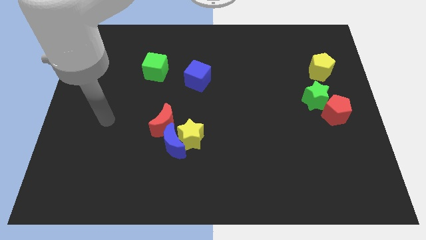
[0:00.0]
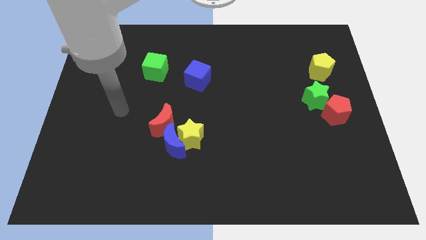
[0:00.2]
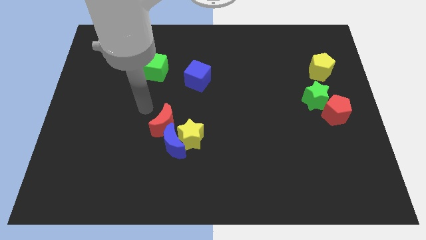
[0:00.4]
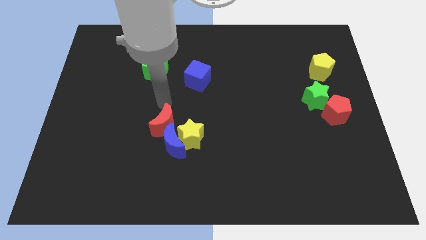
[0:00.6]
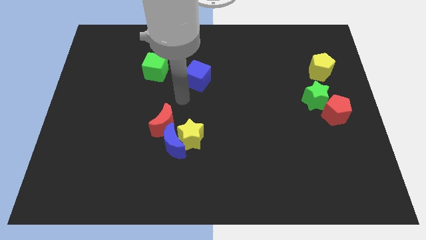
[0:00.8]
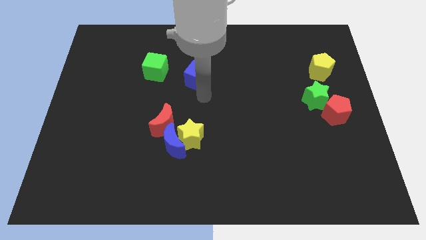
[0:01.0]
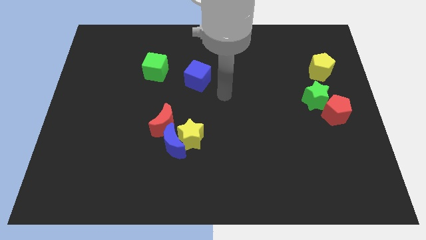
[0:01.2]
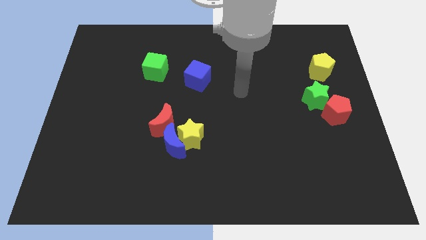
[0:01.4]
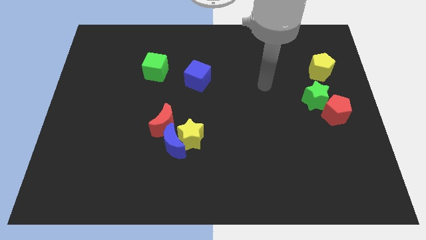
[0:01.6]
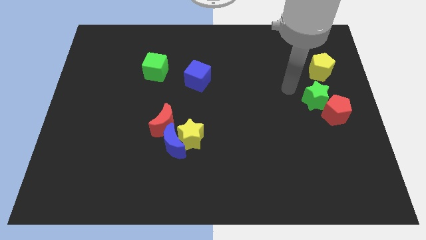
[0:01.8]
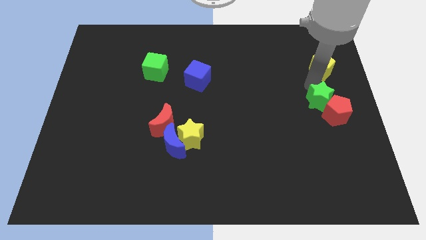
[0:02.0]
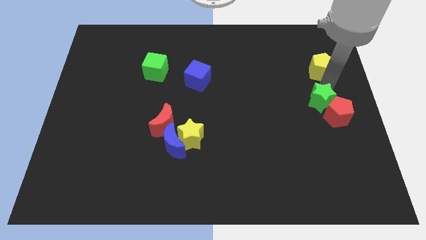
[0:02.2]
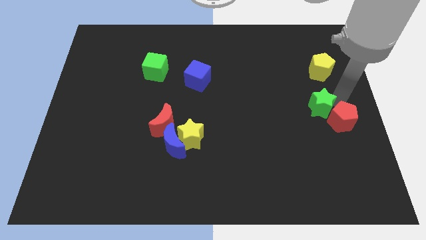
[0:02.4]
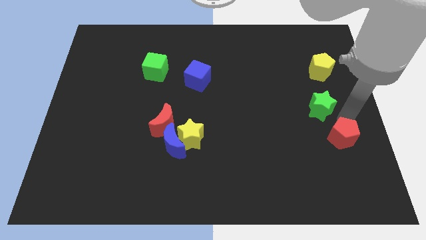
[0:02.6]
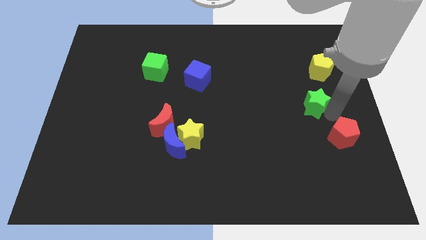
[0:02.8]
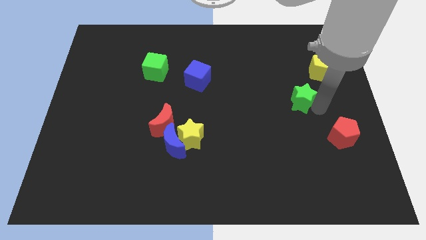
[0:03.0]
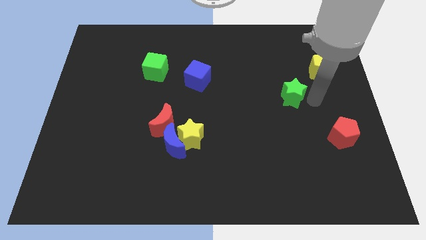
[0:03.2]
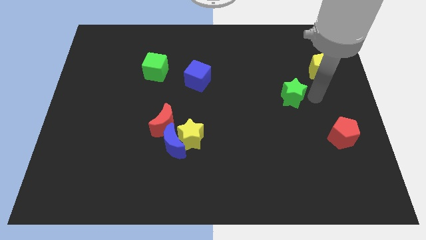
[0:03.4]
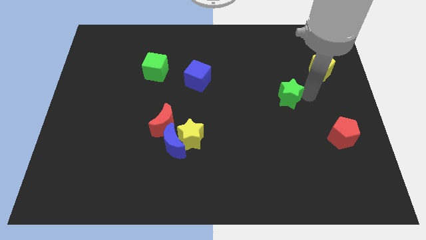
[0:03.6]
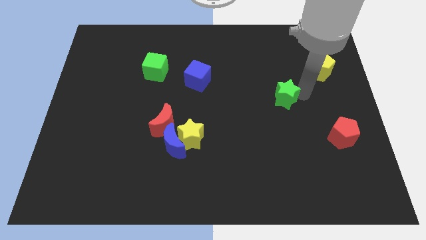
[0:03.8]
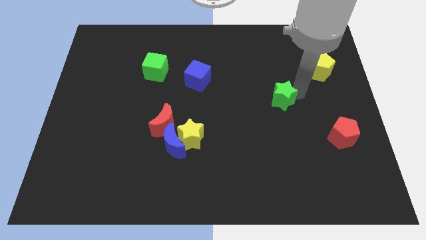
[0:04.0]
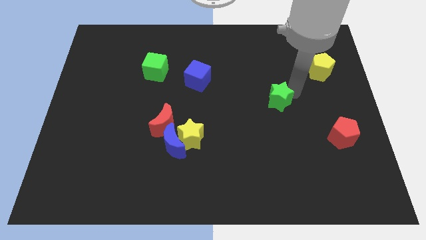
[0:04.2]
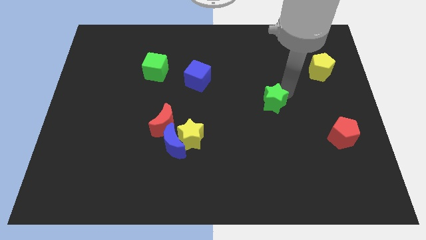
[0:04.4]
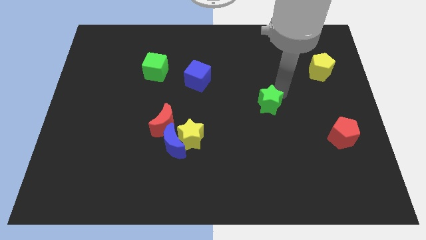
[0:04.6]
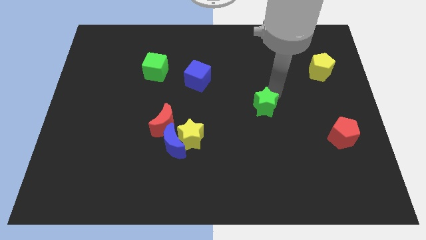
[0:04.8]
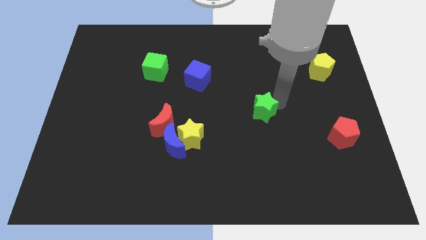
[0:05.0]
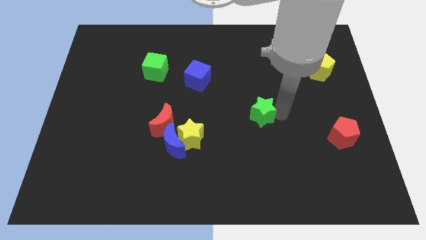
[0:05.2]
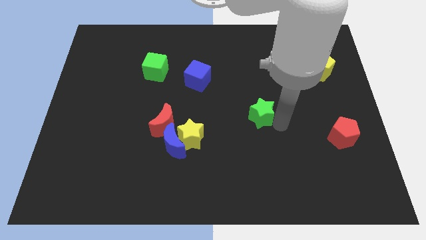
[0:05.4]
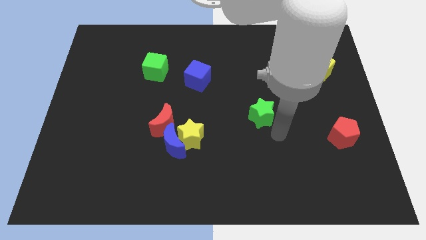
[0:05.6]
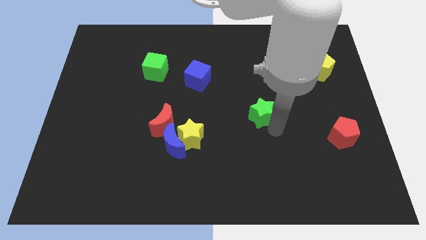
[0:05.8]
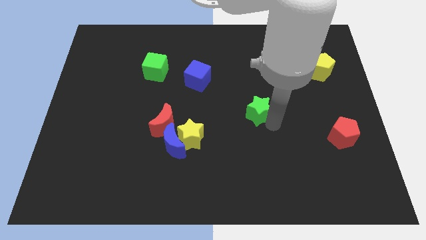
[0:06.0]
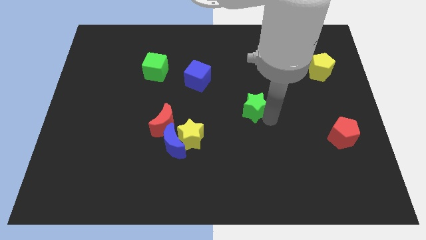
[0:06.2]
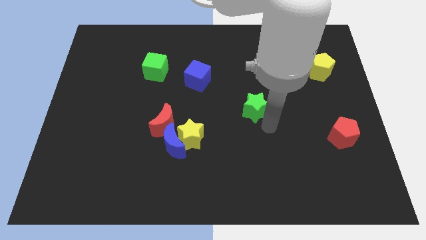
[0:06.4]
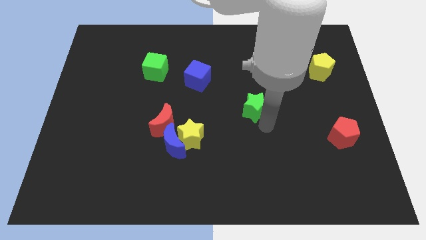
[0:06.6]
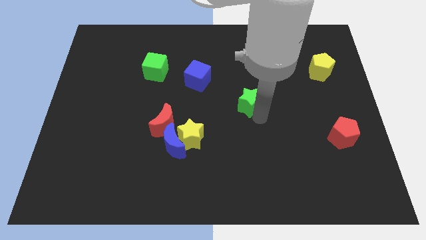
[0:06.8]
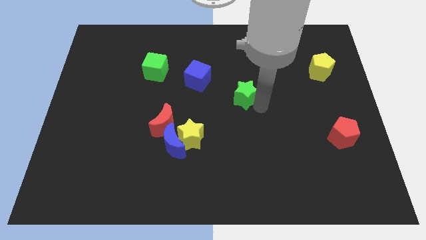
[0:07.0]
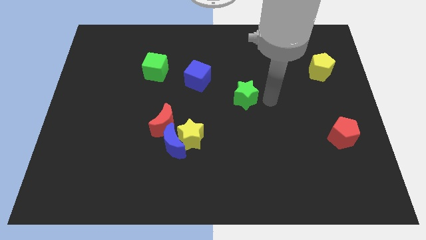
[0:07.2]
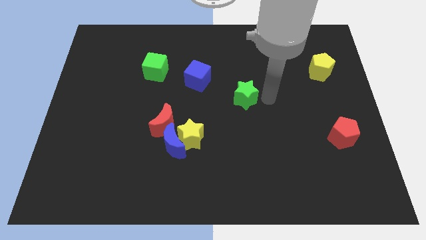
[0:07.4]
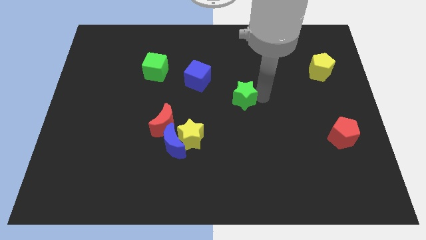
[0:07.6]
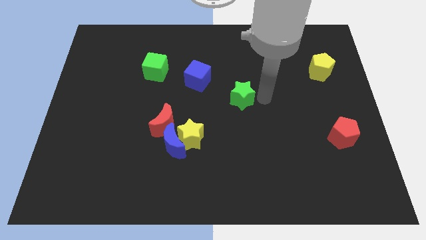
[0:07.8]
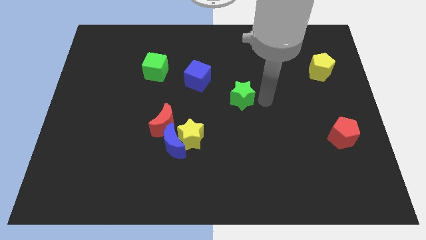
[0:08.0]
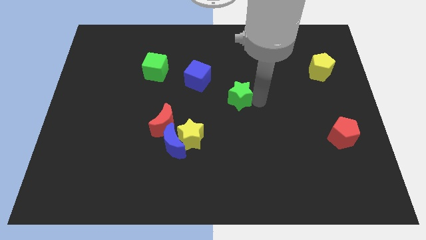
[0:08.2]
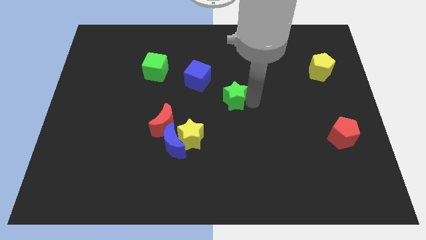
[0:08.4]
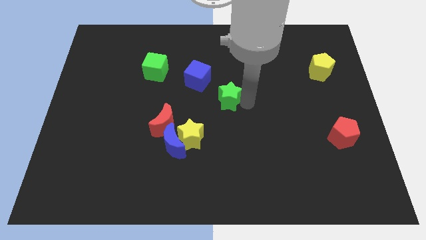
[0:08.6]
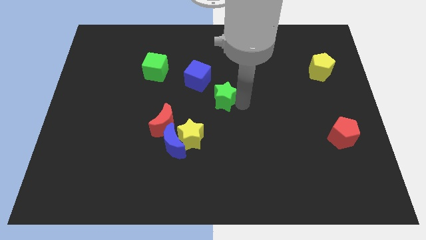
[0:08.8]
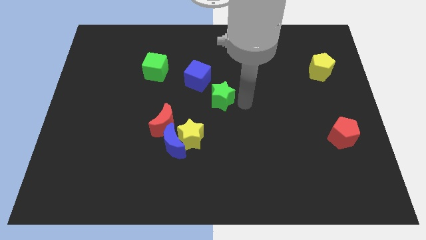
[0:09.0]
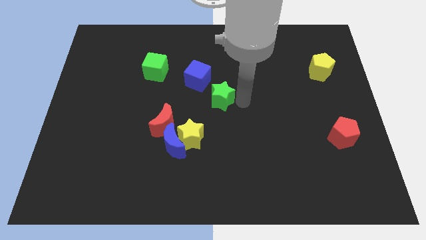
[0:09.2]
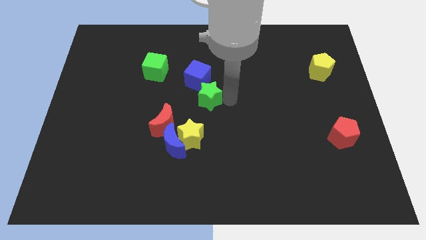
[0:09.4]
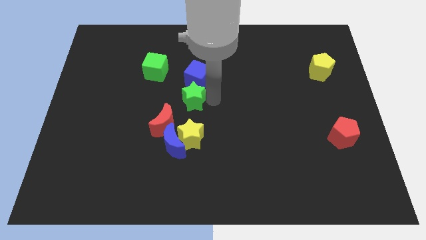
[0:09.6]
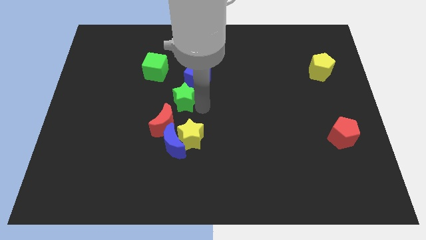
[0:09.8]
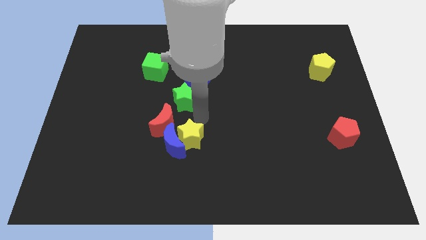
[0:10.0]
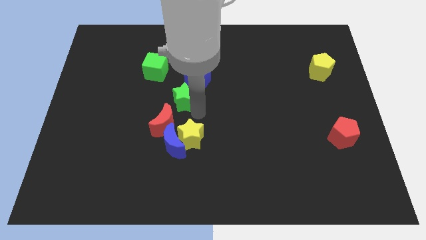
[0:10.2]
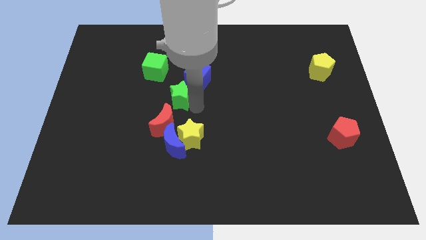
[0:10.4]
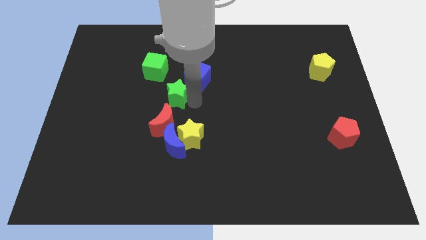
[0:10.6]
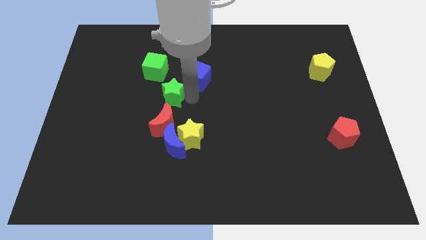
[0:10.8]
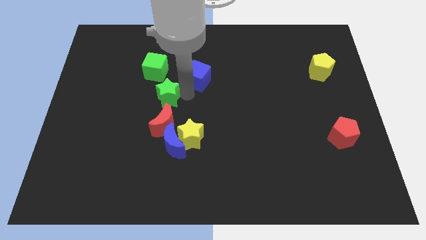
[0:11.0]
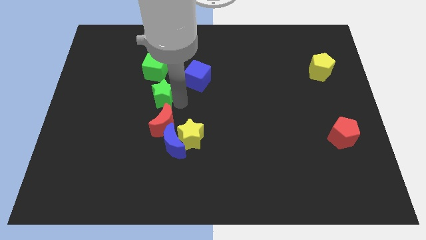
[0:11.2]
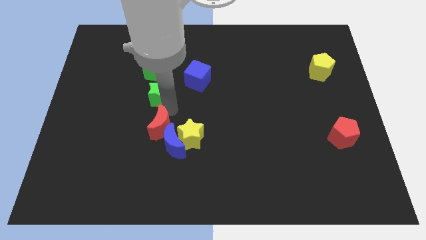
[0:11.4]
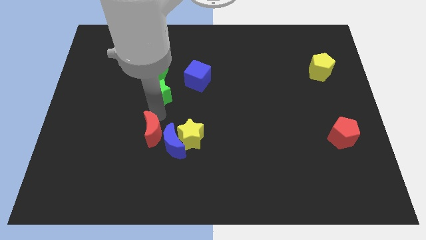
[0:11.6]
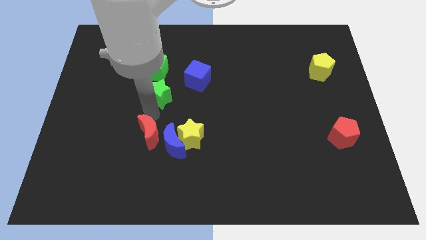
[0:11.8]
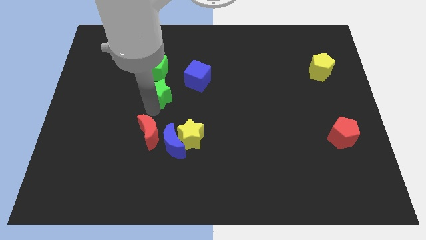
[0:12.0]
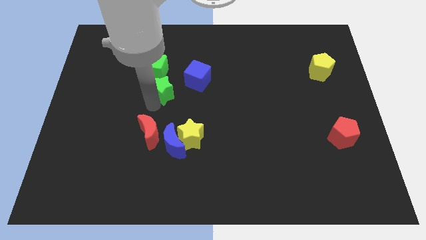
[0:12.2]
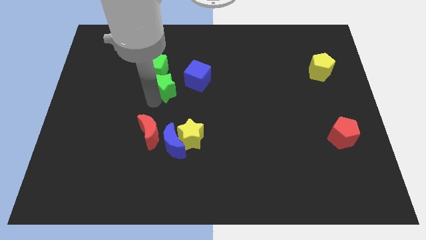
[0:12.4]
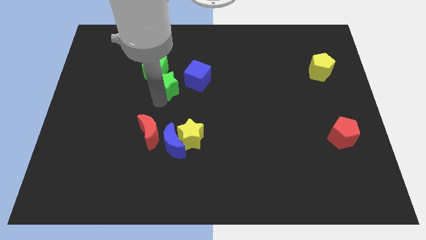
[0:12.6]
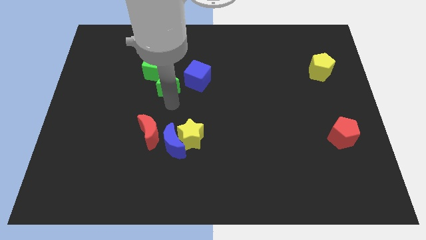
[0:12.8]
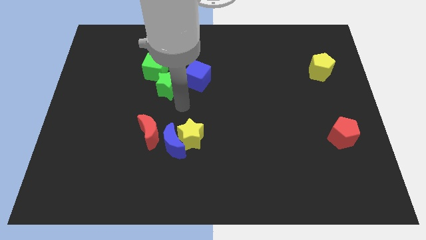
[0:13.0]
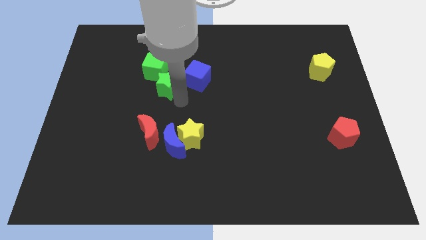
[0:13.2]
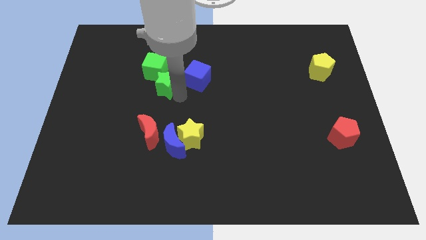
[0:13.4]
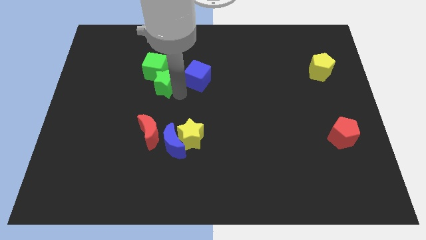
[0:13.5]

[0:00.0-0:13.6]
slide the green star towards the green cube
